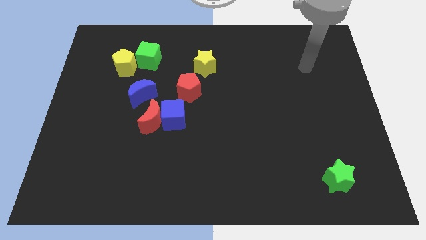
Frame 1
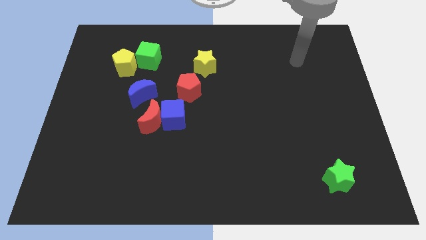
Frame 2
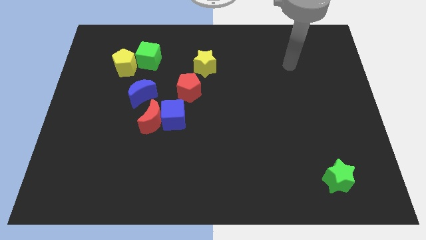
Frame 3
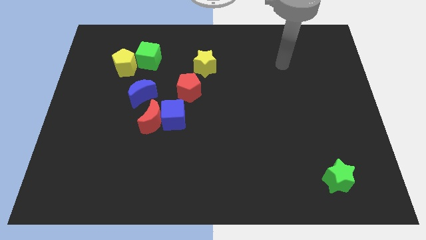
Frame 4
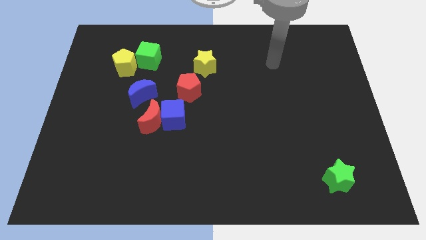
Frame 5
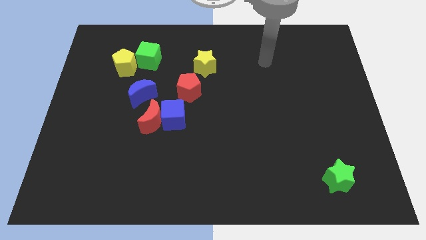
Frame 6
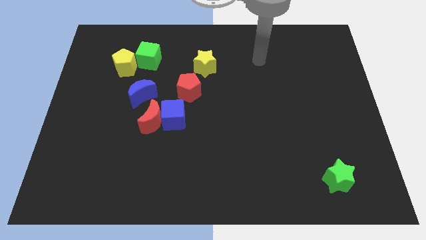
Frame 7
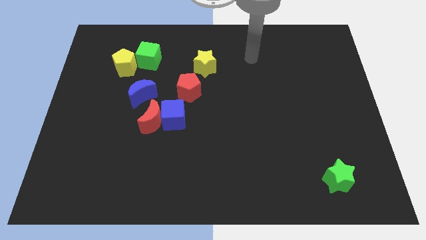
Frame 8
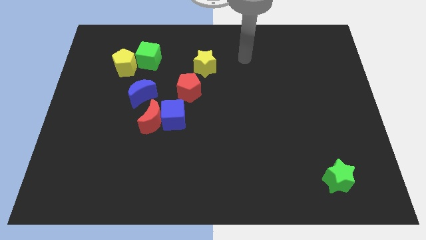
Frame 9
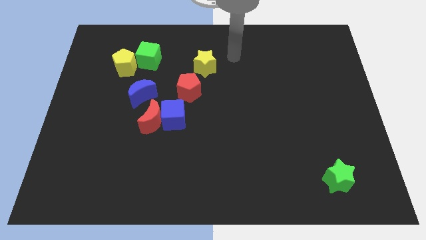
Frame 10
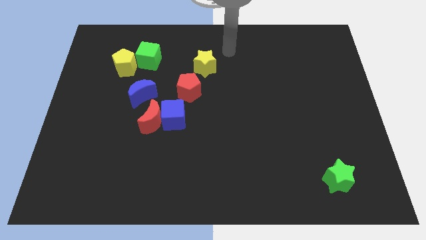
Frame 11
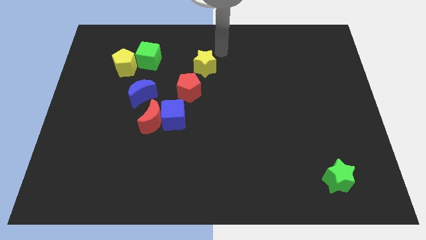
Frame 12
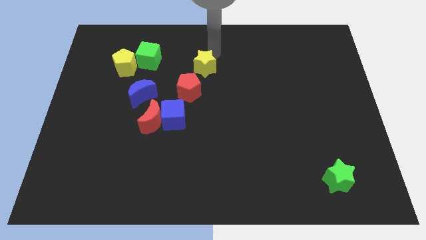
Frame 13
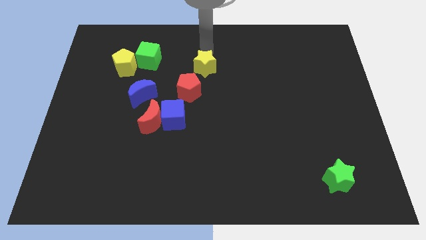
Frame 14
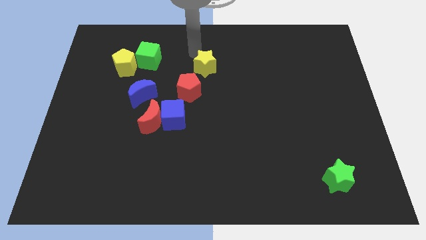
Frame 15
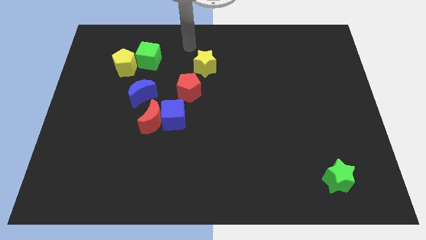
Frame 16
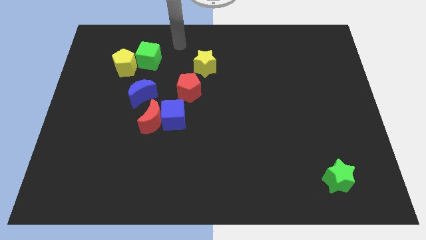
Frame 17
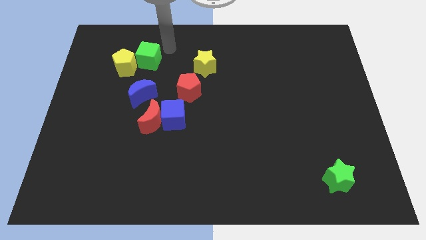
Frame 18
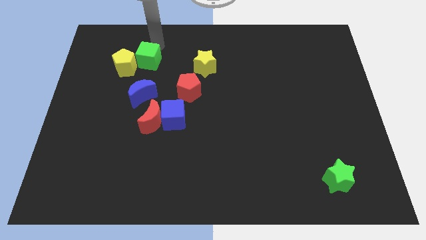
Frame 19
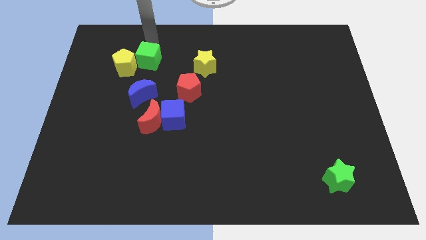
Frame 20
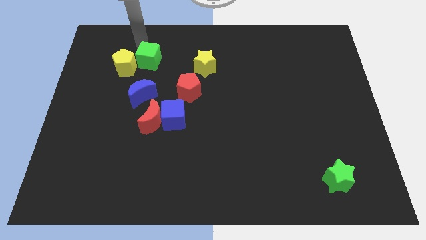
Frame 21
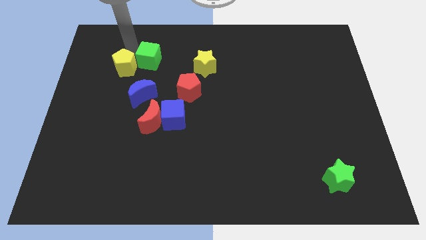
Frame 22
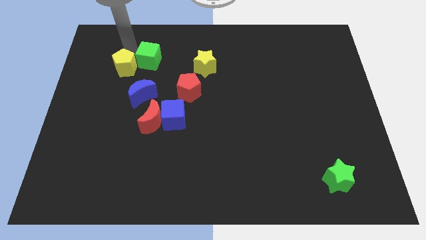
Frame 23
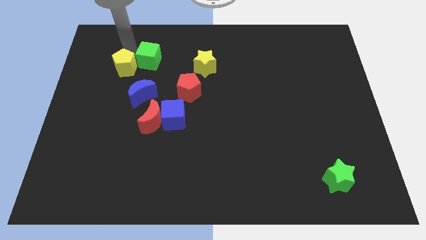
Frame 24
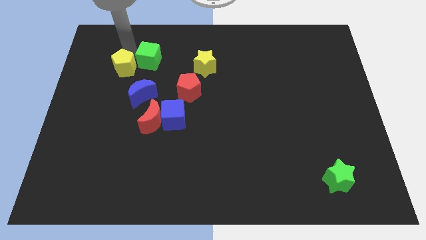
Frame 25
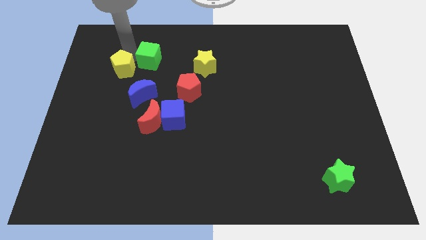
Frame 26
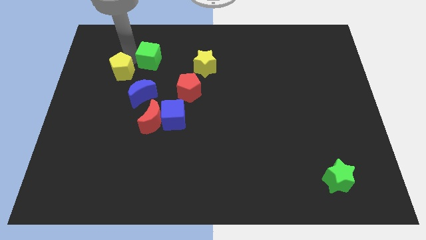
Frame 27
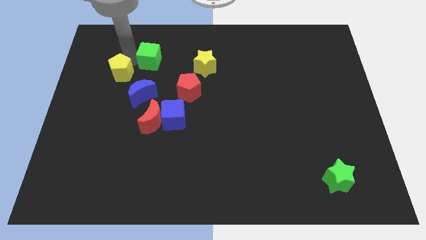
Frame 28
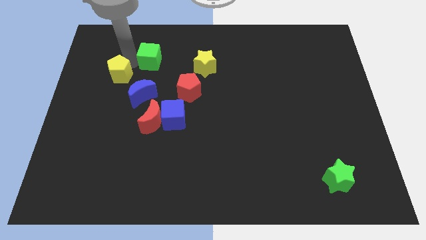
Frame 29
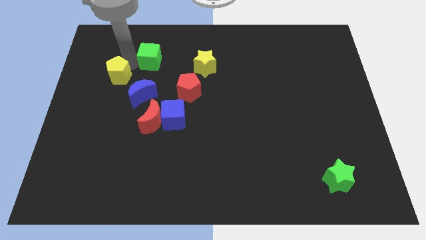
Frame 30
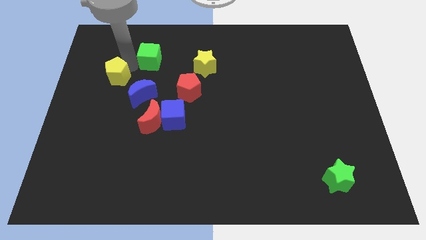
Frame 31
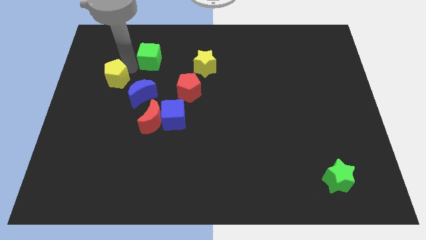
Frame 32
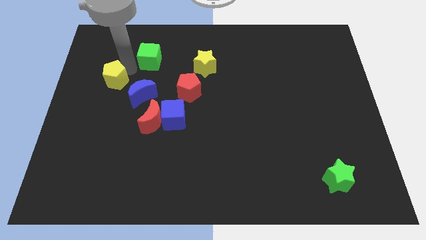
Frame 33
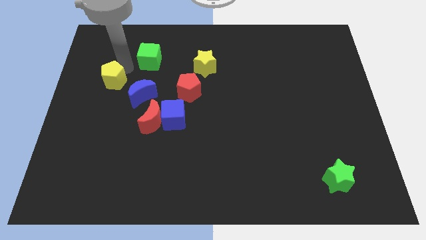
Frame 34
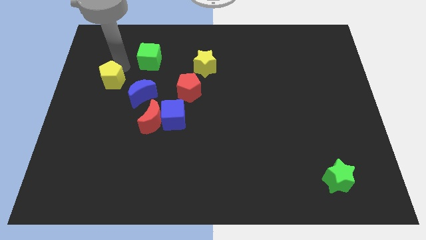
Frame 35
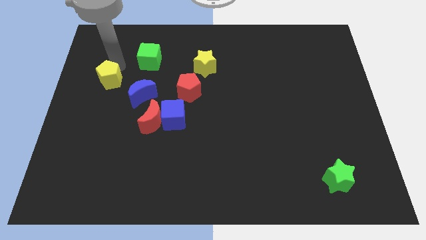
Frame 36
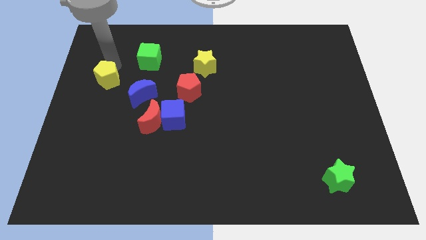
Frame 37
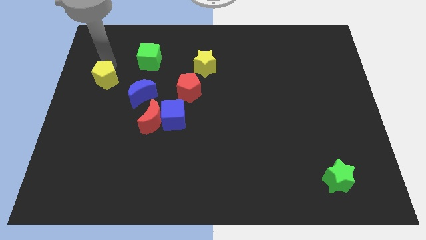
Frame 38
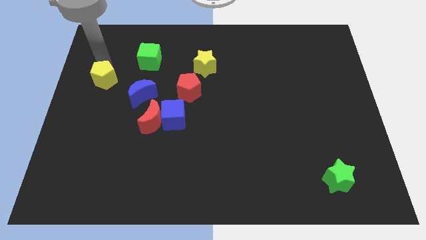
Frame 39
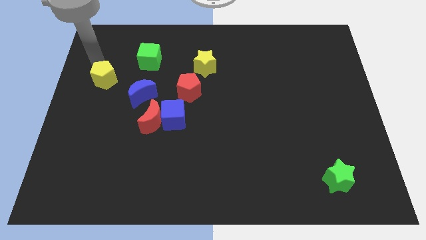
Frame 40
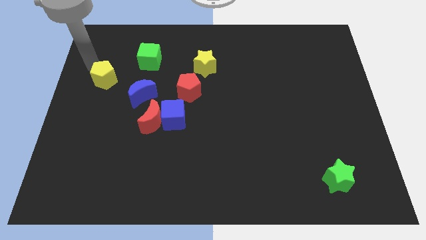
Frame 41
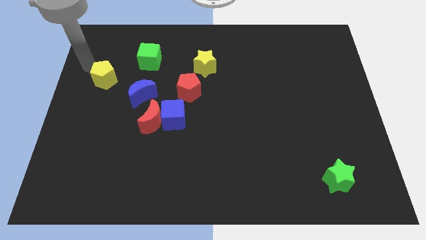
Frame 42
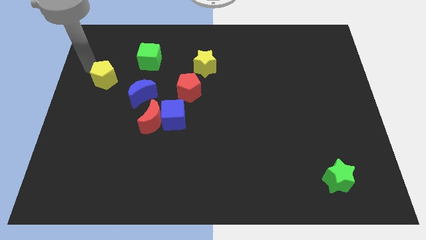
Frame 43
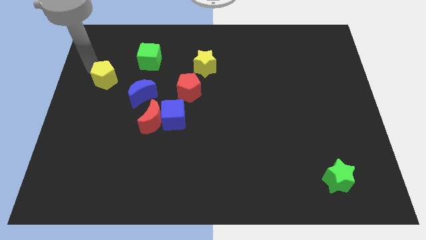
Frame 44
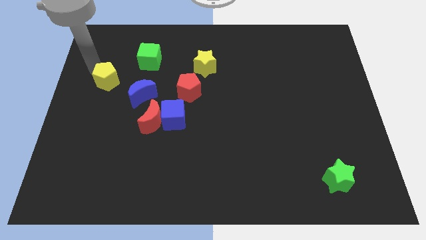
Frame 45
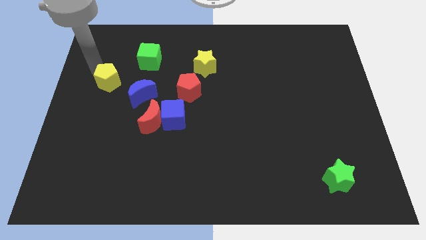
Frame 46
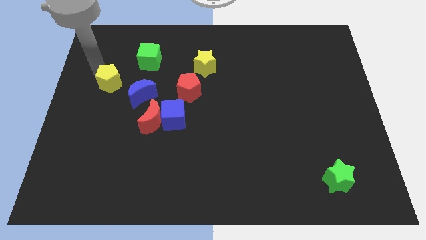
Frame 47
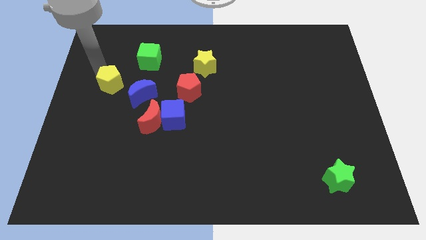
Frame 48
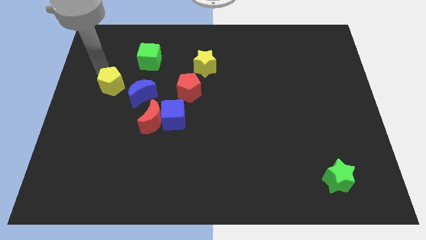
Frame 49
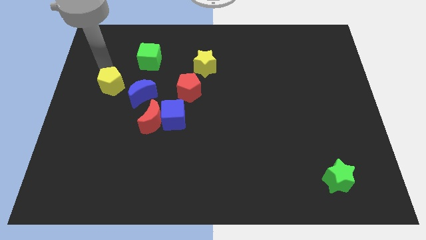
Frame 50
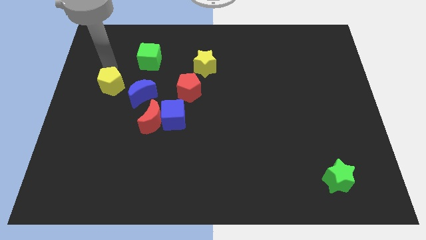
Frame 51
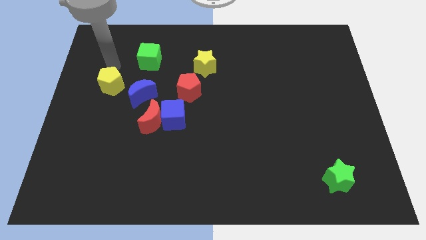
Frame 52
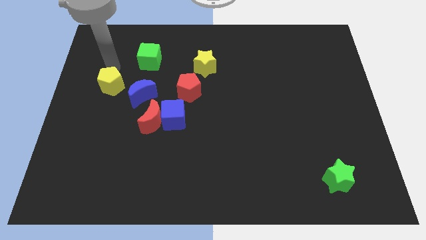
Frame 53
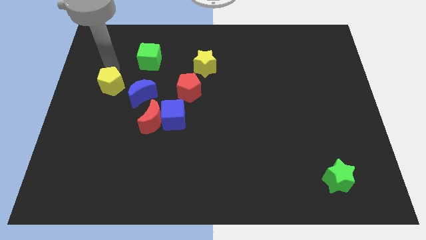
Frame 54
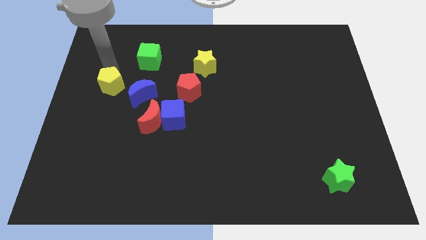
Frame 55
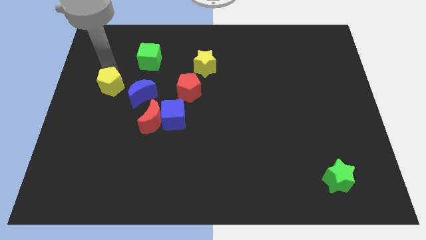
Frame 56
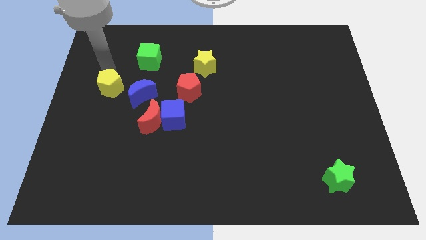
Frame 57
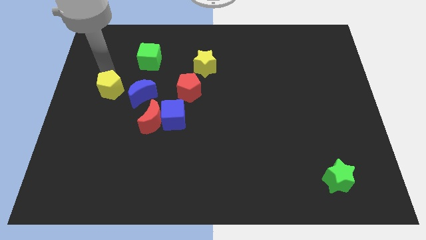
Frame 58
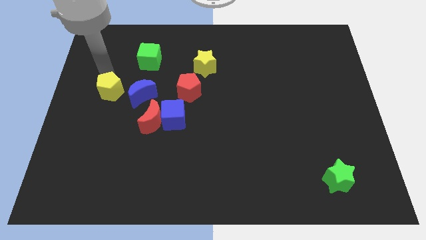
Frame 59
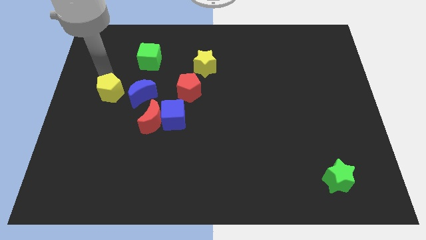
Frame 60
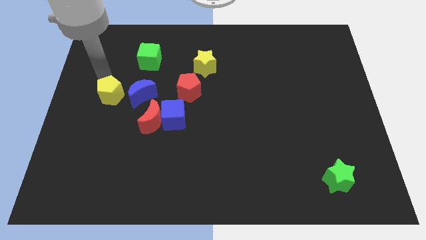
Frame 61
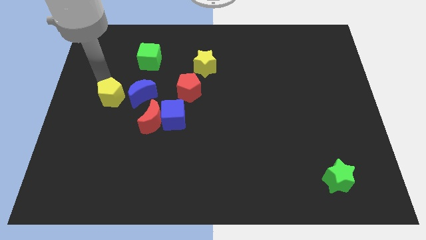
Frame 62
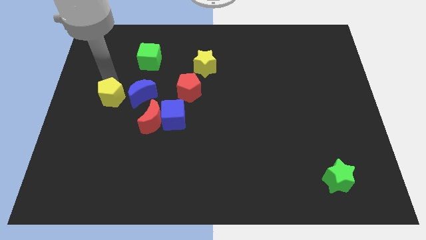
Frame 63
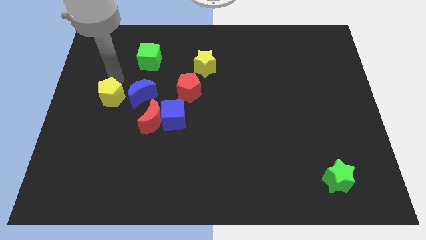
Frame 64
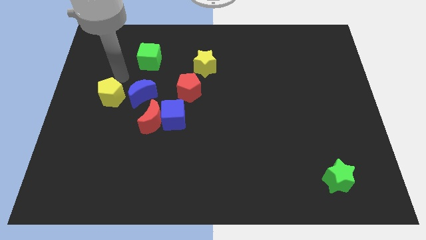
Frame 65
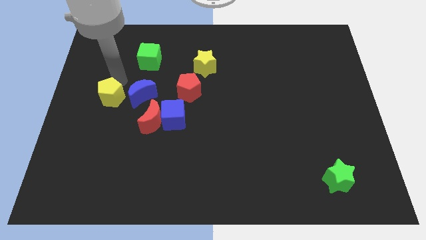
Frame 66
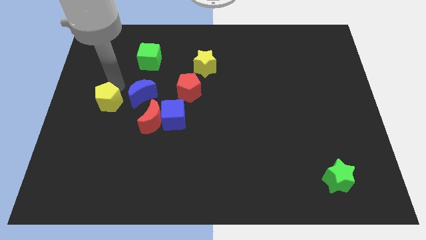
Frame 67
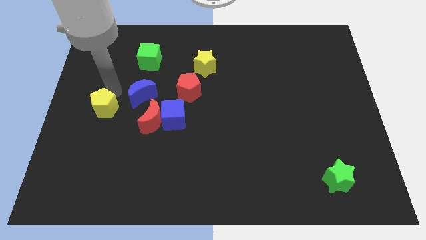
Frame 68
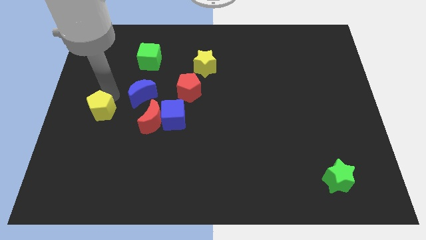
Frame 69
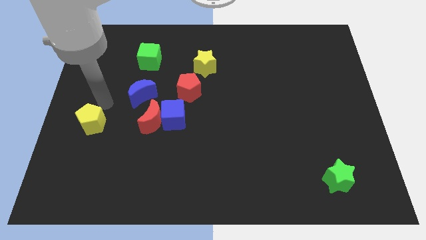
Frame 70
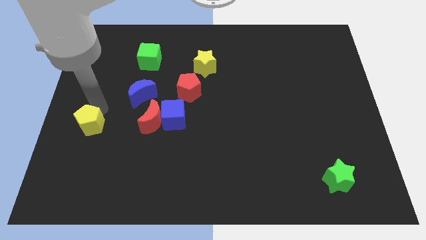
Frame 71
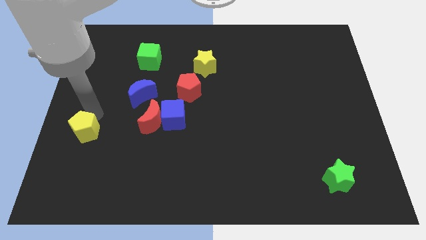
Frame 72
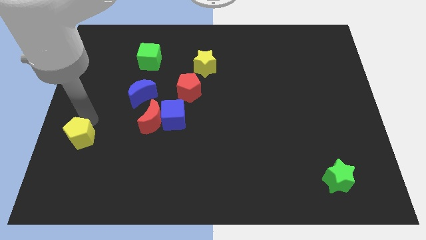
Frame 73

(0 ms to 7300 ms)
push the yellow pentagon down

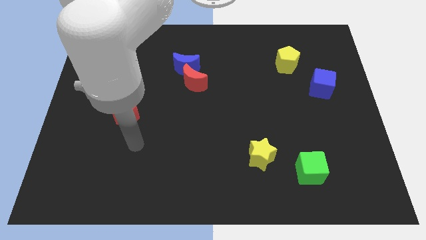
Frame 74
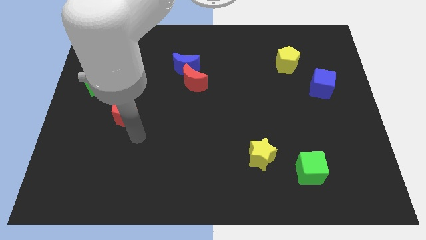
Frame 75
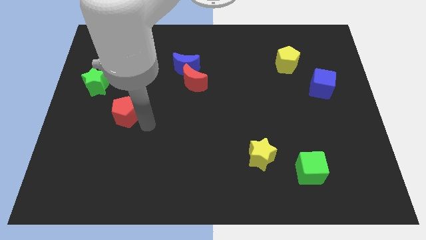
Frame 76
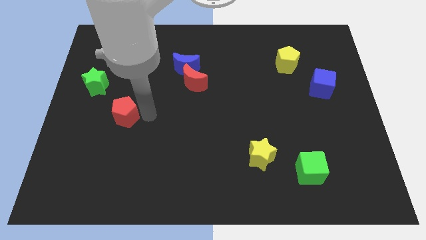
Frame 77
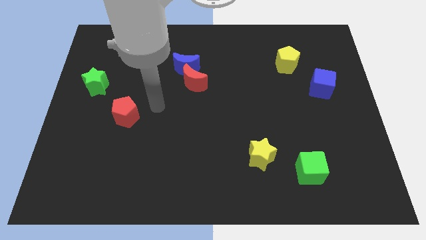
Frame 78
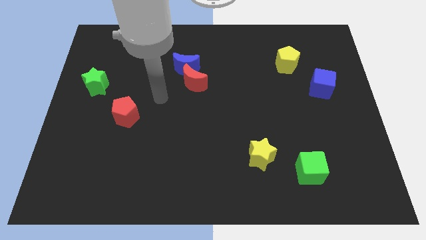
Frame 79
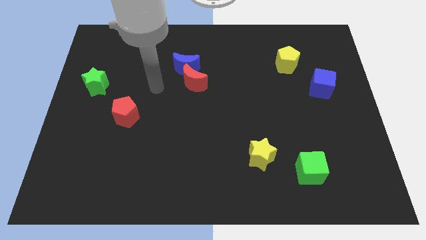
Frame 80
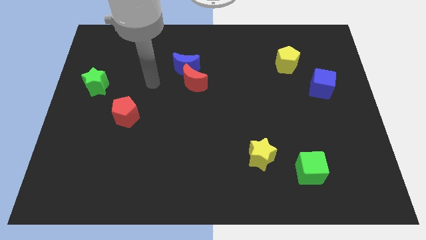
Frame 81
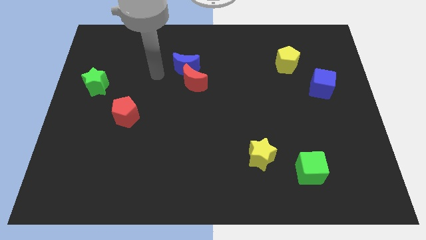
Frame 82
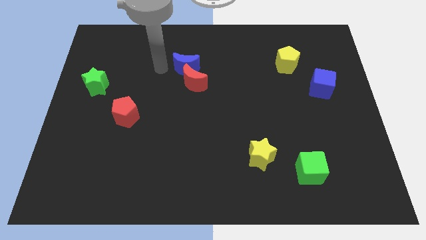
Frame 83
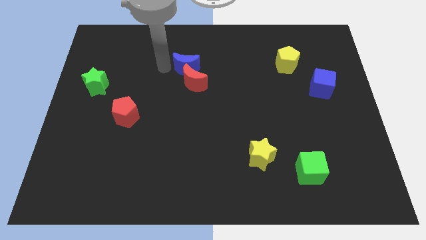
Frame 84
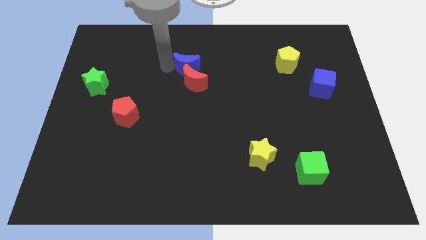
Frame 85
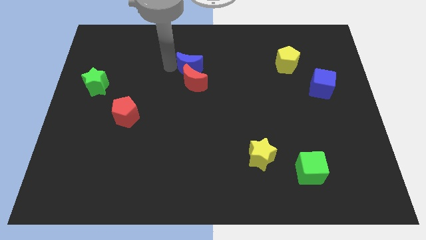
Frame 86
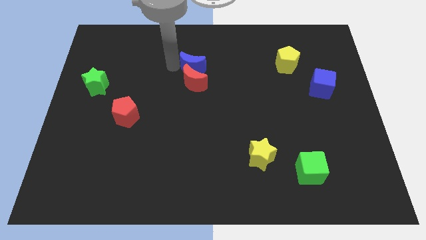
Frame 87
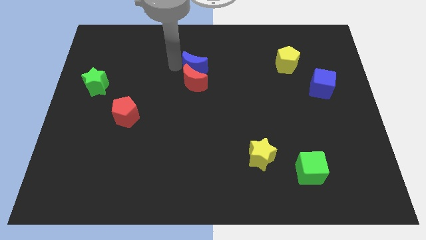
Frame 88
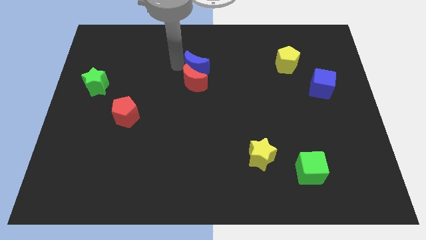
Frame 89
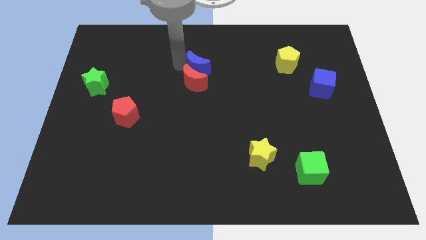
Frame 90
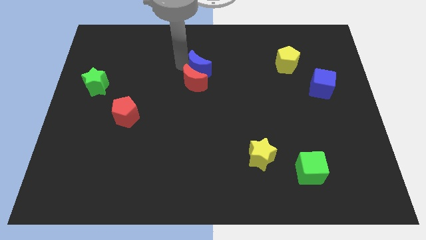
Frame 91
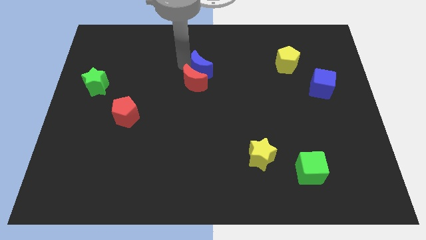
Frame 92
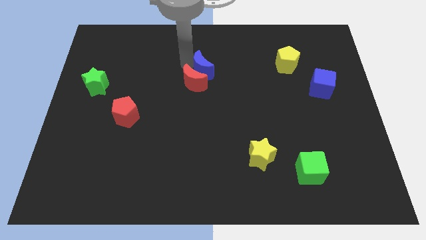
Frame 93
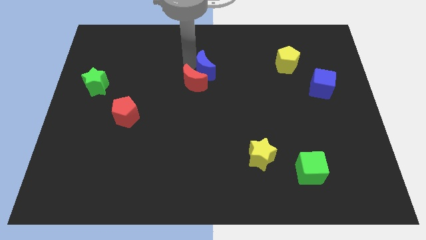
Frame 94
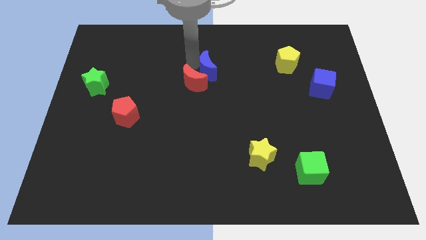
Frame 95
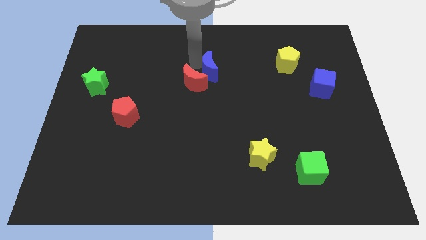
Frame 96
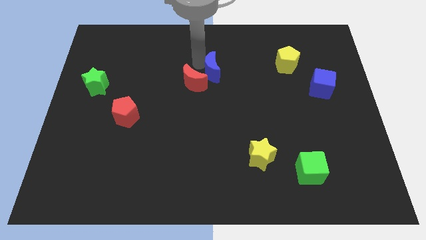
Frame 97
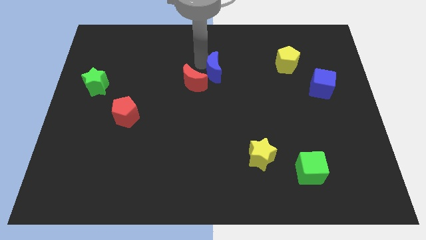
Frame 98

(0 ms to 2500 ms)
slightly move the blue moon to the right
